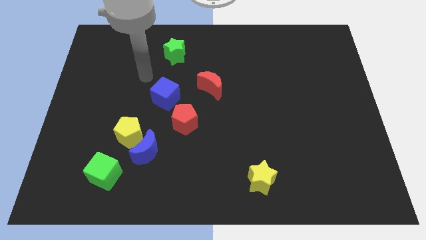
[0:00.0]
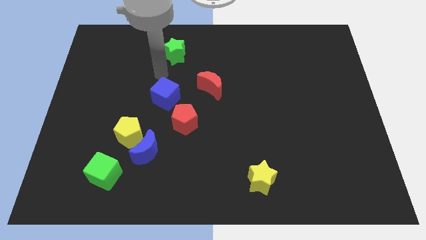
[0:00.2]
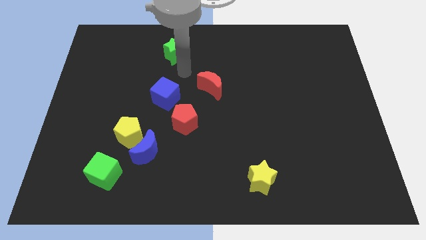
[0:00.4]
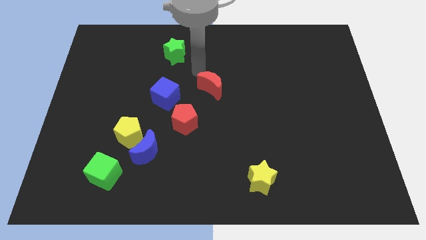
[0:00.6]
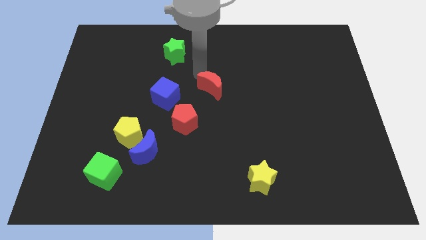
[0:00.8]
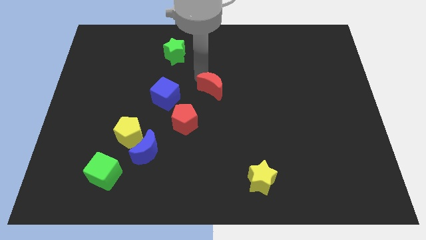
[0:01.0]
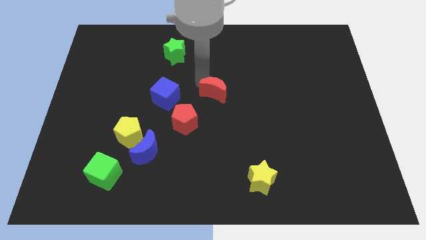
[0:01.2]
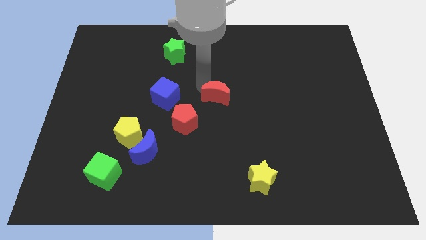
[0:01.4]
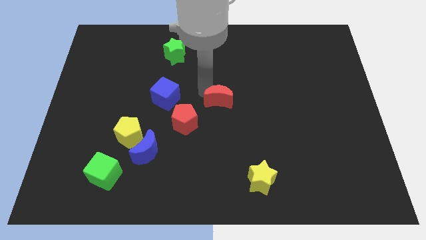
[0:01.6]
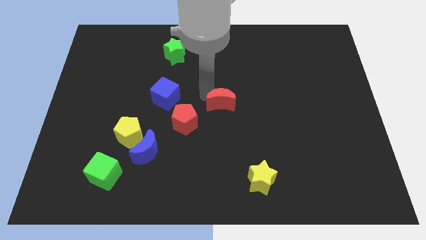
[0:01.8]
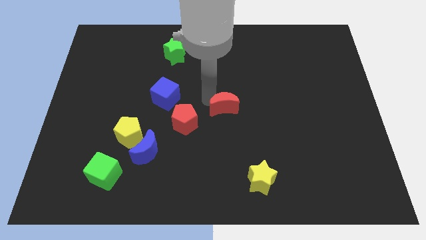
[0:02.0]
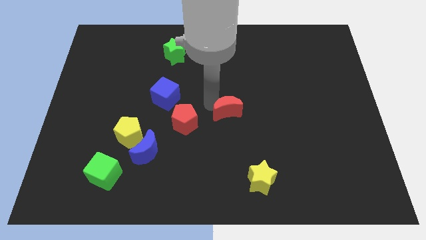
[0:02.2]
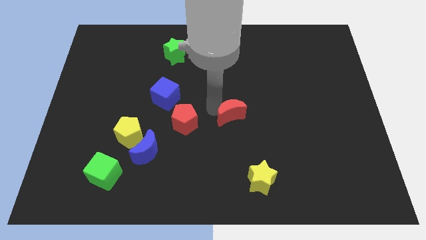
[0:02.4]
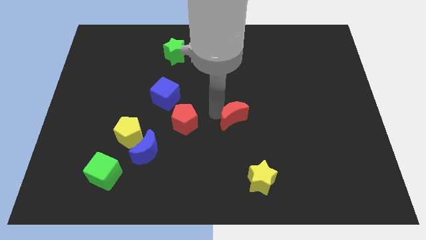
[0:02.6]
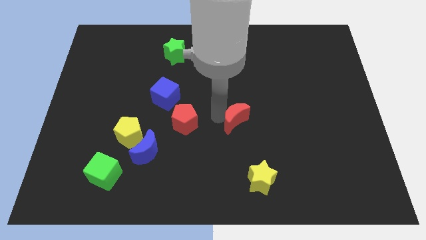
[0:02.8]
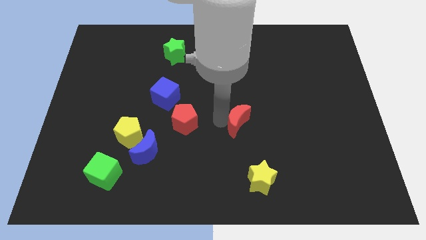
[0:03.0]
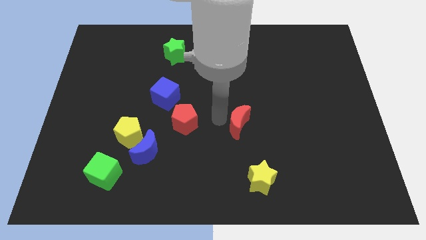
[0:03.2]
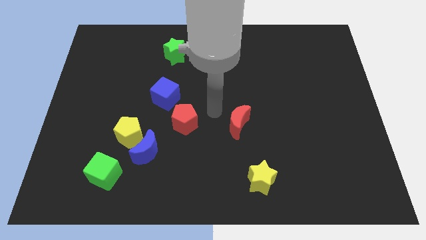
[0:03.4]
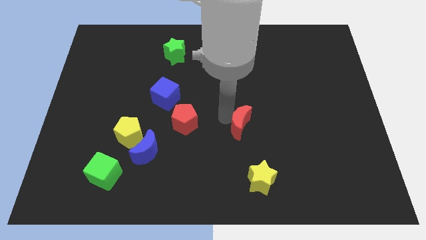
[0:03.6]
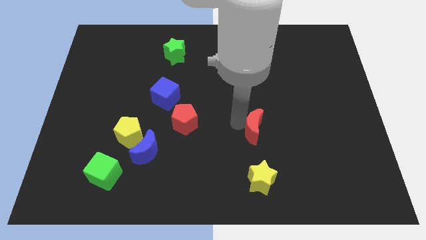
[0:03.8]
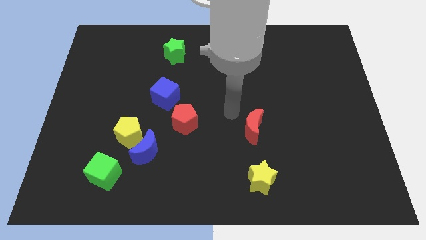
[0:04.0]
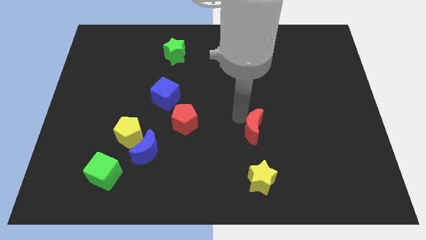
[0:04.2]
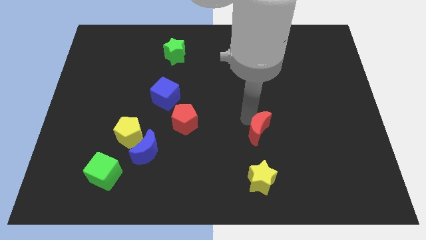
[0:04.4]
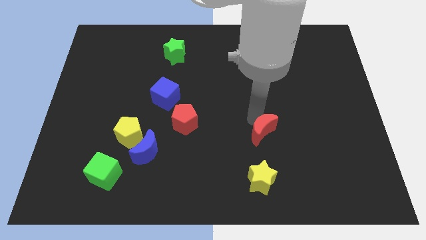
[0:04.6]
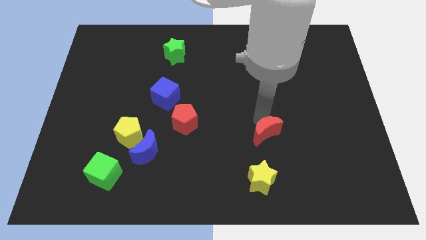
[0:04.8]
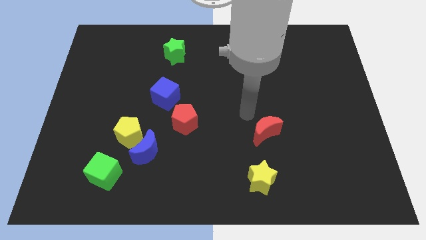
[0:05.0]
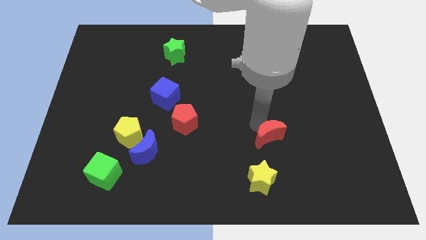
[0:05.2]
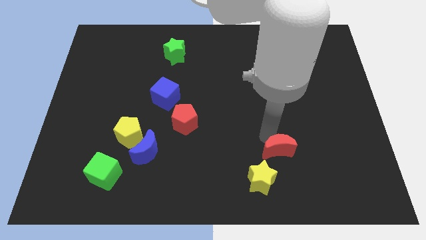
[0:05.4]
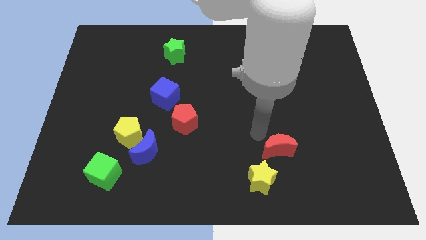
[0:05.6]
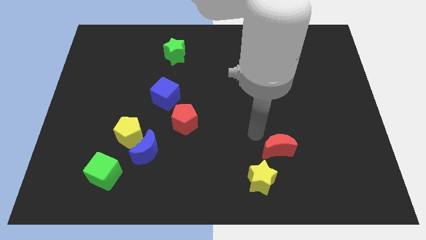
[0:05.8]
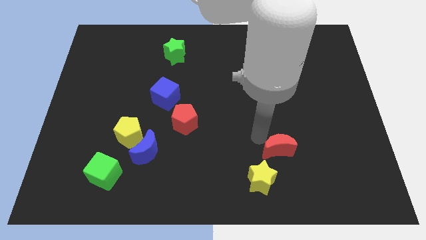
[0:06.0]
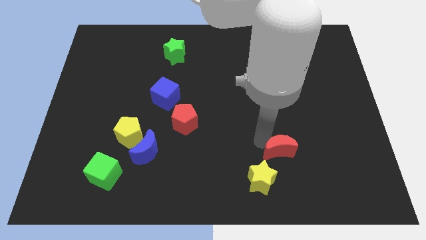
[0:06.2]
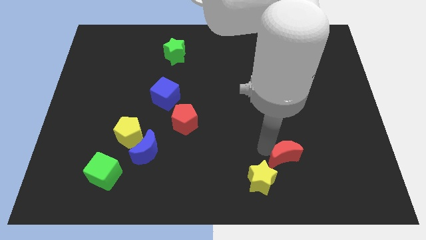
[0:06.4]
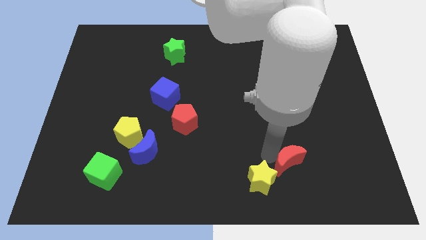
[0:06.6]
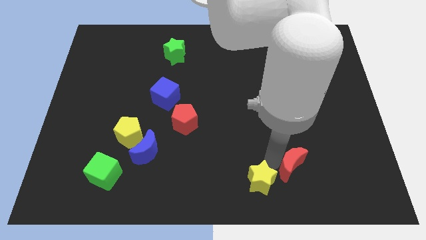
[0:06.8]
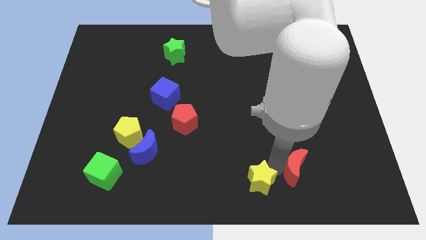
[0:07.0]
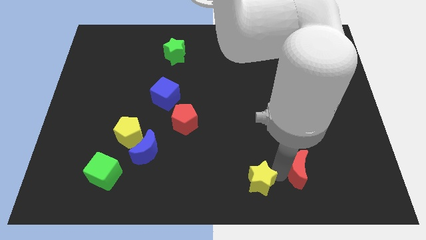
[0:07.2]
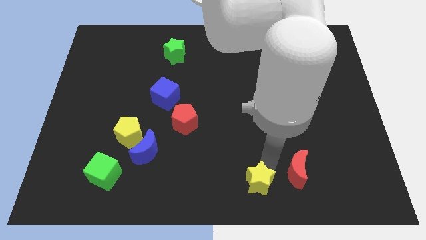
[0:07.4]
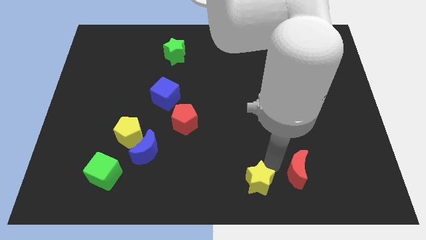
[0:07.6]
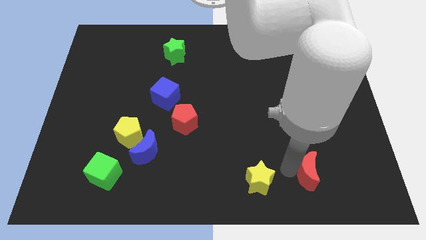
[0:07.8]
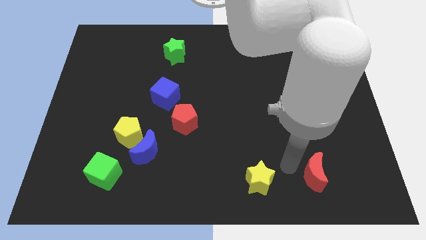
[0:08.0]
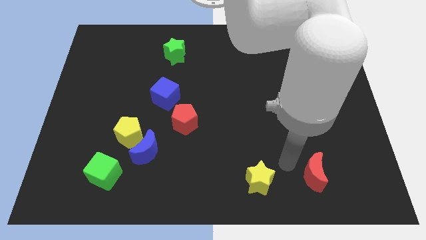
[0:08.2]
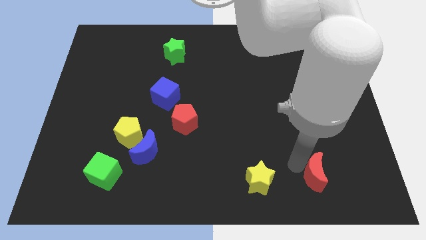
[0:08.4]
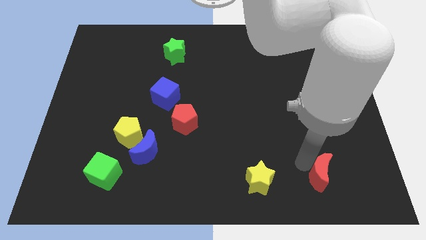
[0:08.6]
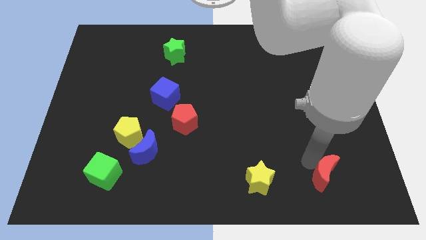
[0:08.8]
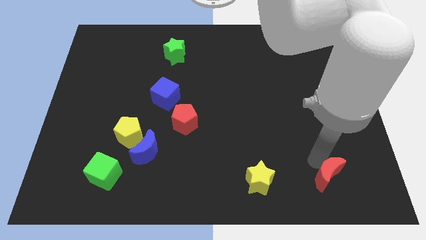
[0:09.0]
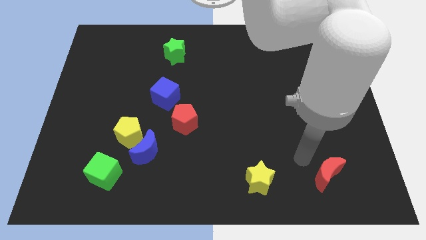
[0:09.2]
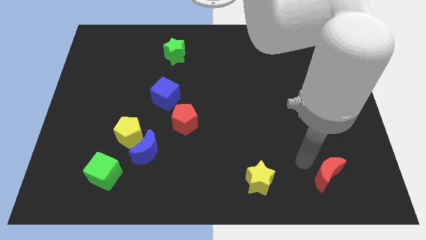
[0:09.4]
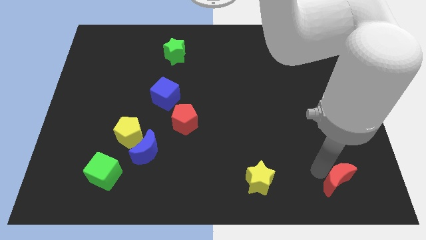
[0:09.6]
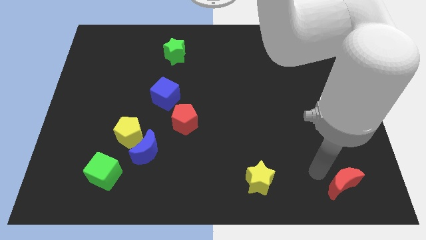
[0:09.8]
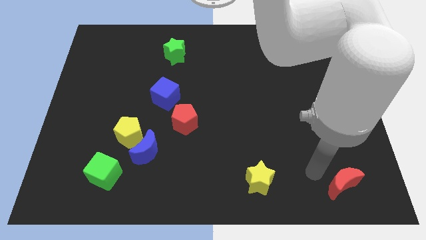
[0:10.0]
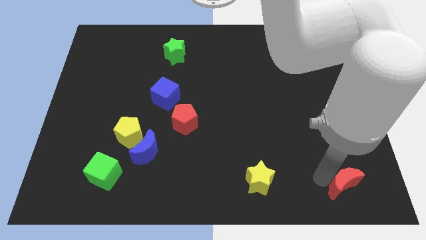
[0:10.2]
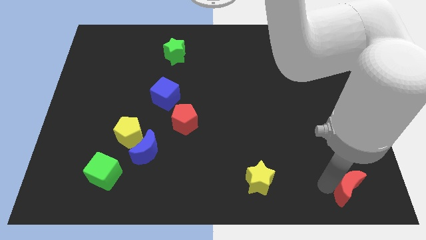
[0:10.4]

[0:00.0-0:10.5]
push the red moon to the bottom right corner

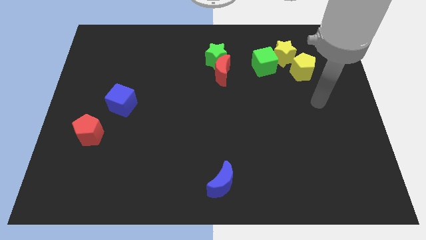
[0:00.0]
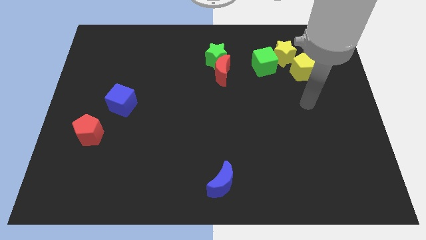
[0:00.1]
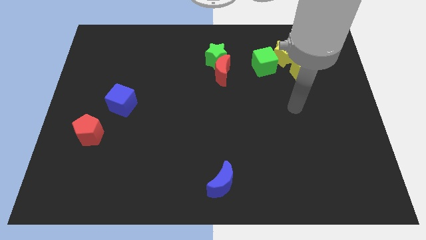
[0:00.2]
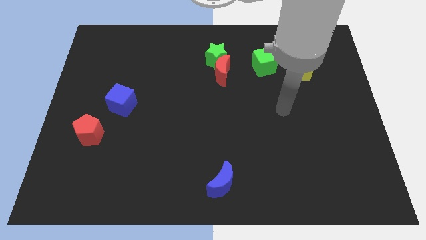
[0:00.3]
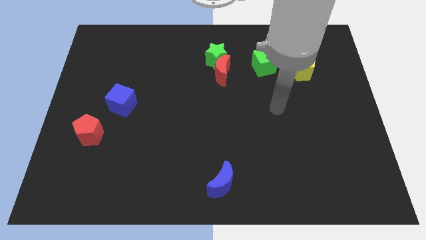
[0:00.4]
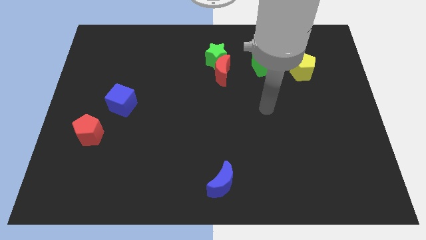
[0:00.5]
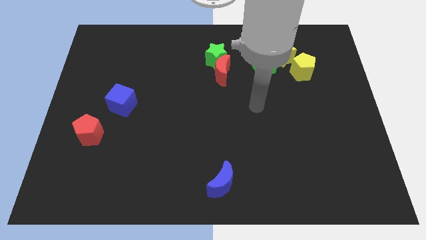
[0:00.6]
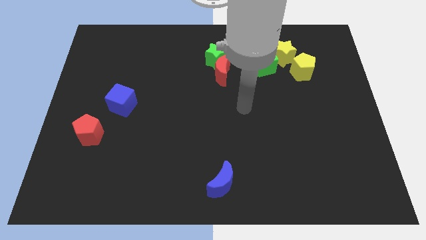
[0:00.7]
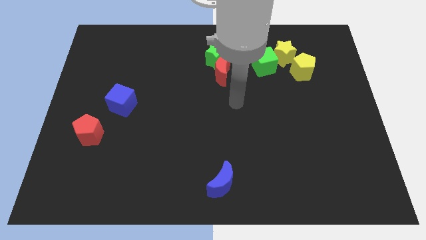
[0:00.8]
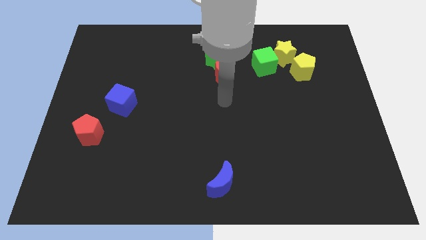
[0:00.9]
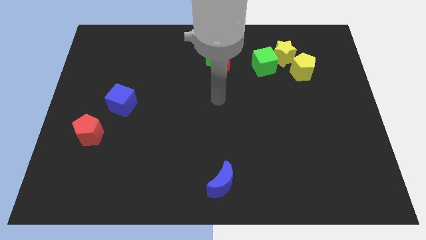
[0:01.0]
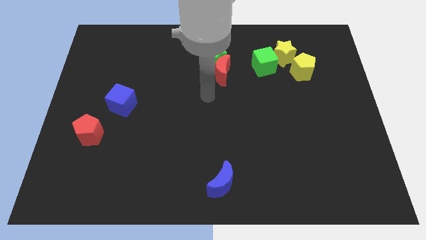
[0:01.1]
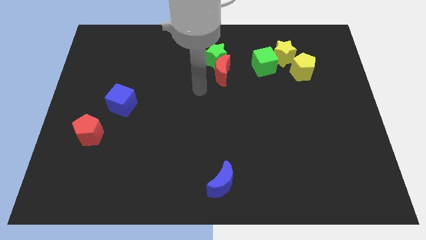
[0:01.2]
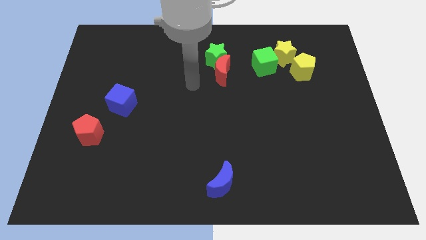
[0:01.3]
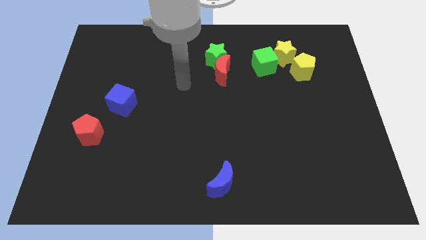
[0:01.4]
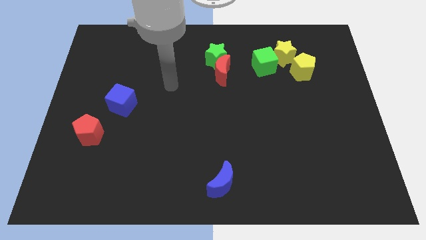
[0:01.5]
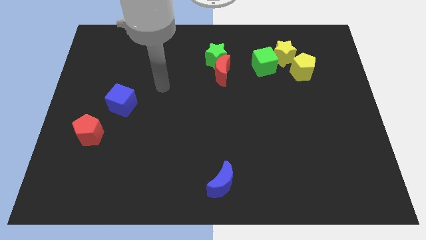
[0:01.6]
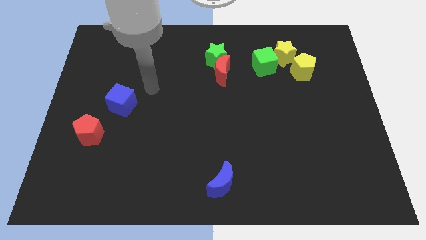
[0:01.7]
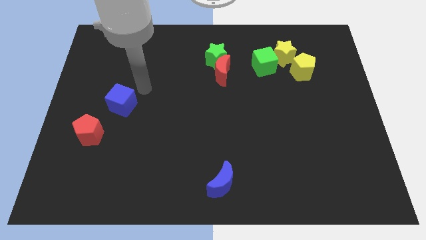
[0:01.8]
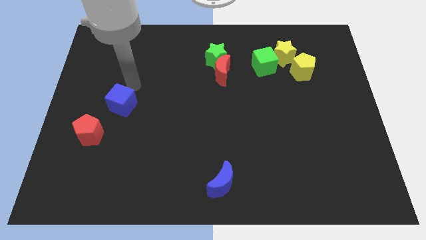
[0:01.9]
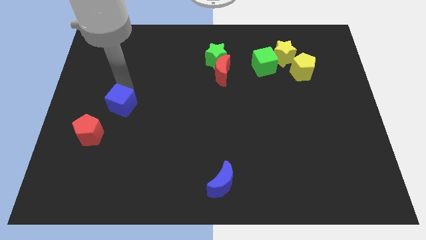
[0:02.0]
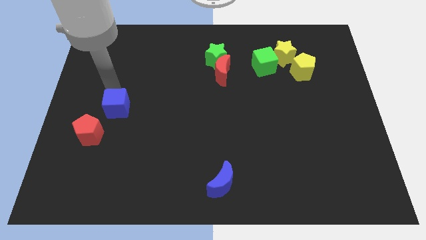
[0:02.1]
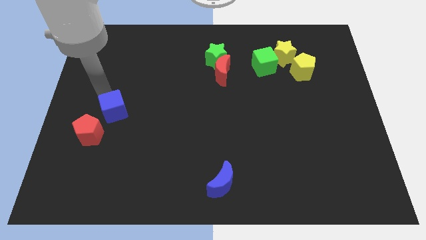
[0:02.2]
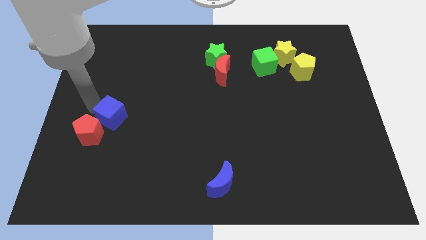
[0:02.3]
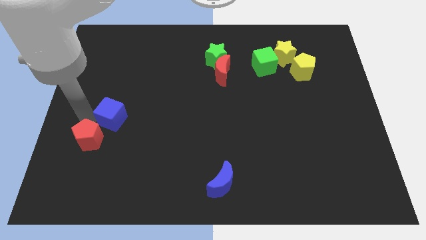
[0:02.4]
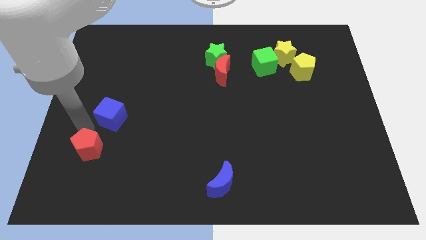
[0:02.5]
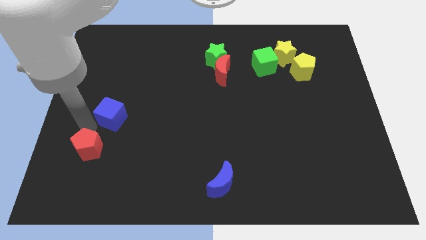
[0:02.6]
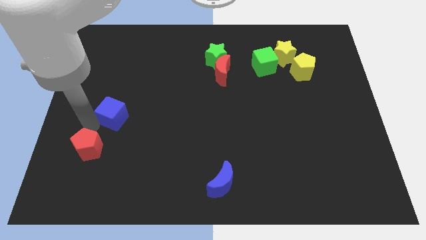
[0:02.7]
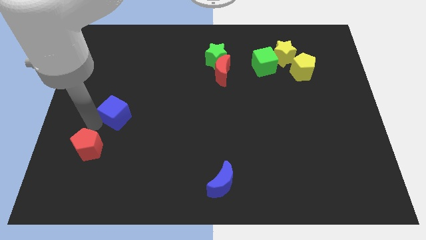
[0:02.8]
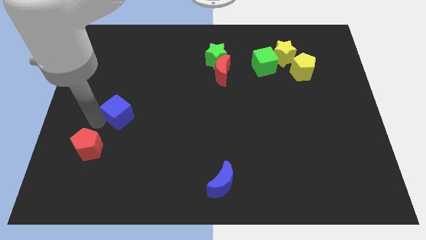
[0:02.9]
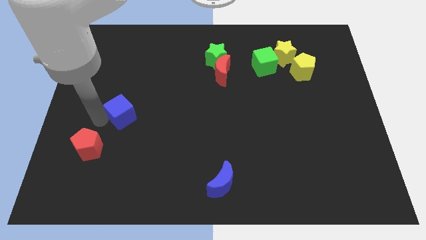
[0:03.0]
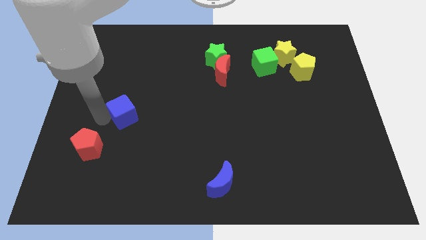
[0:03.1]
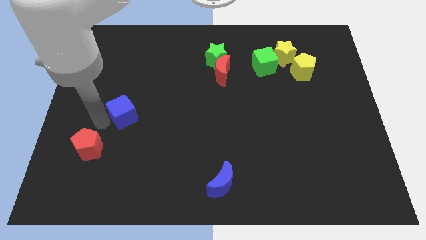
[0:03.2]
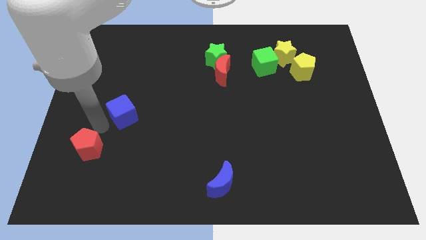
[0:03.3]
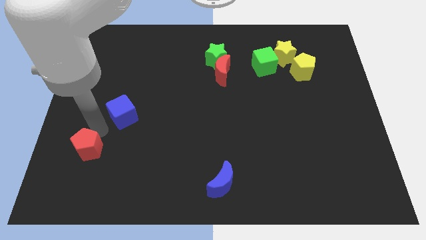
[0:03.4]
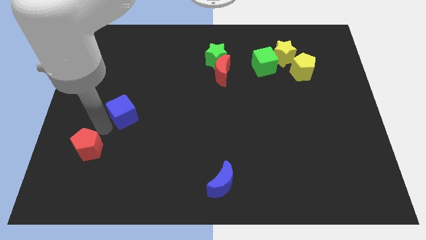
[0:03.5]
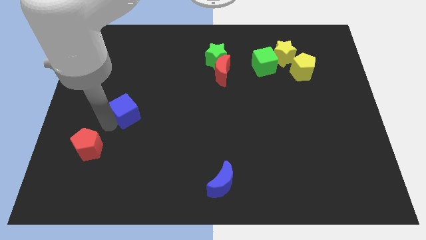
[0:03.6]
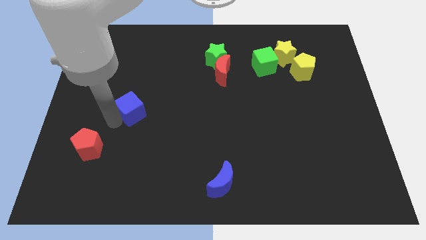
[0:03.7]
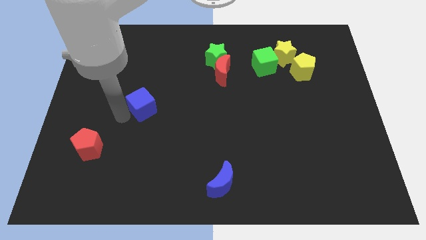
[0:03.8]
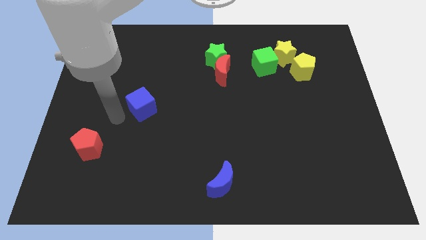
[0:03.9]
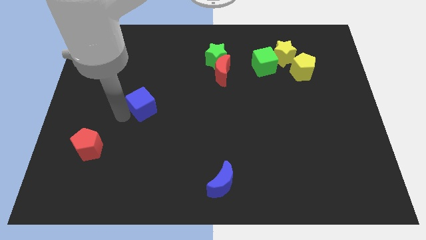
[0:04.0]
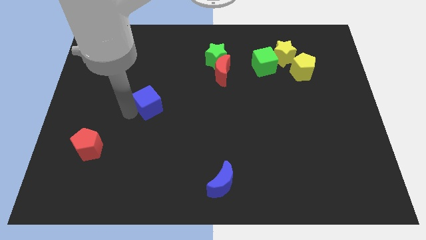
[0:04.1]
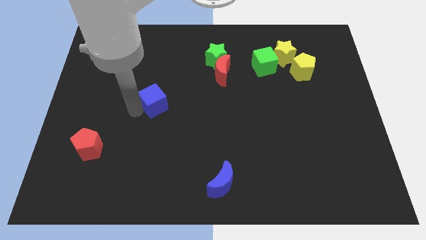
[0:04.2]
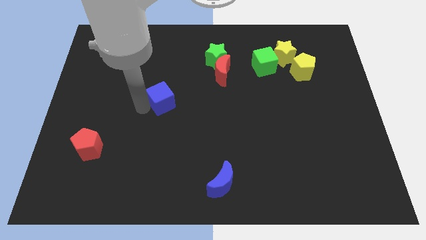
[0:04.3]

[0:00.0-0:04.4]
move the blue cube to the middle
